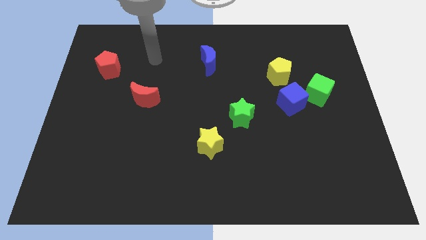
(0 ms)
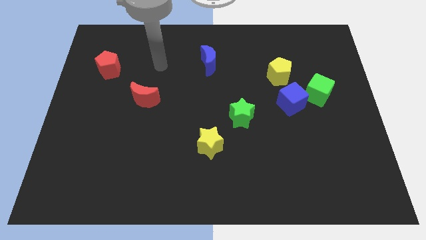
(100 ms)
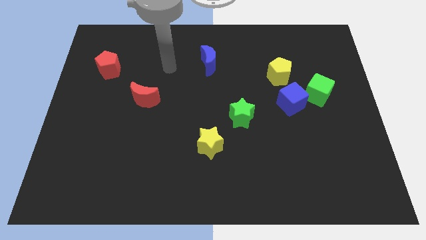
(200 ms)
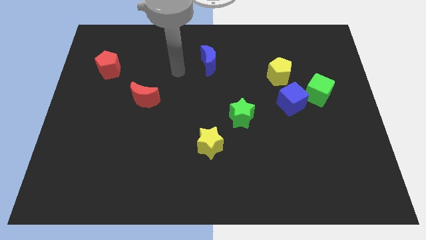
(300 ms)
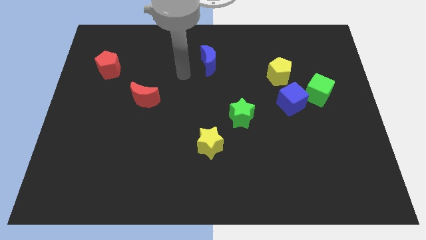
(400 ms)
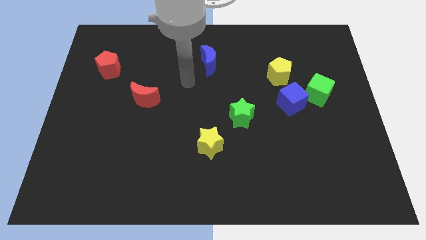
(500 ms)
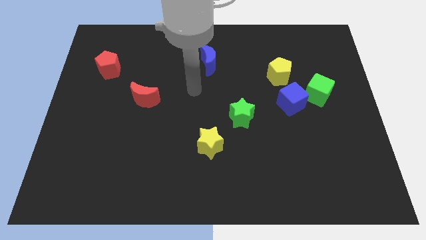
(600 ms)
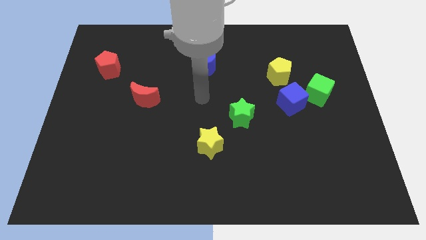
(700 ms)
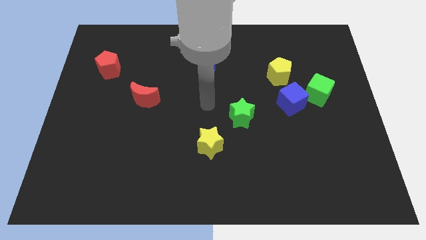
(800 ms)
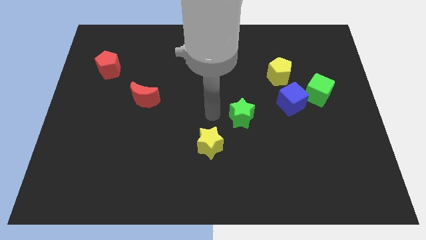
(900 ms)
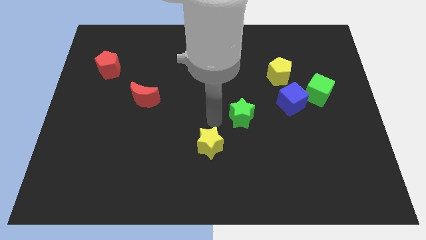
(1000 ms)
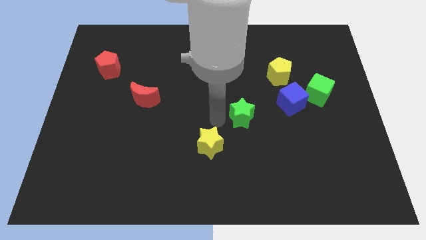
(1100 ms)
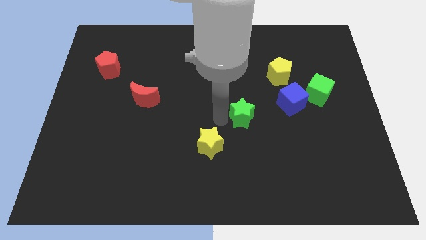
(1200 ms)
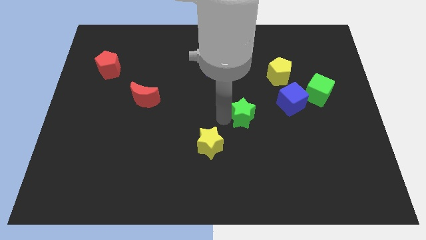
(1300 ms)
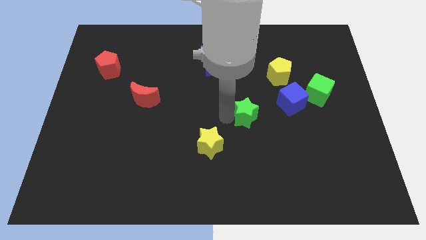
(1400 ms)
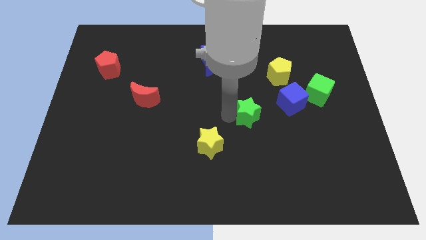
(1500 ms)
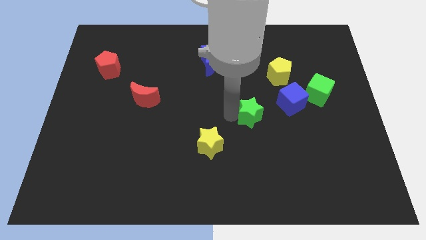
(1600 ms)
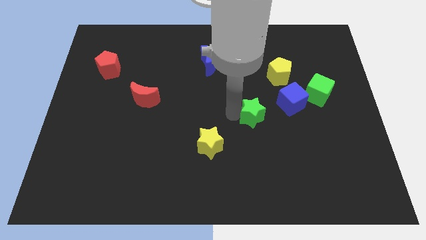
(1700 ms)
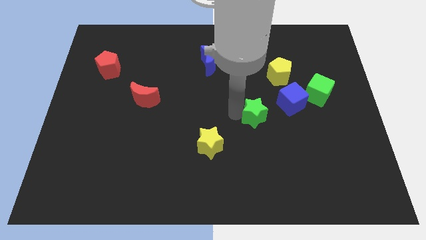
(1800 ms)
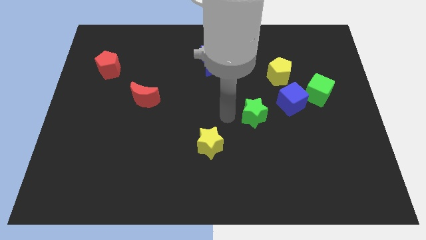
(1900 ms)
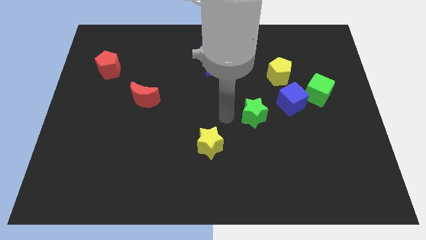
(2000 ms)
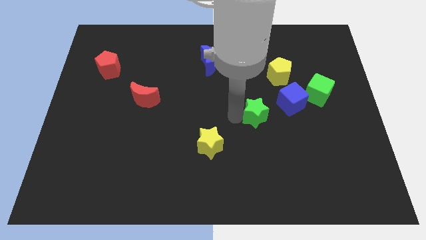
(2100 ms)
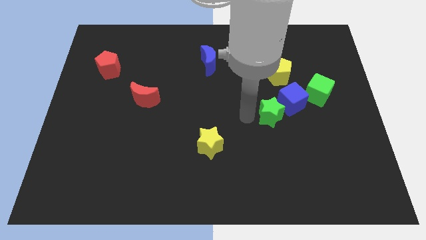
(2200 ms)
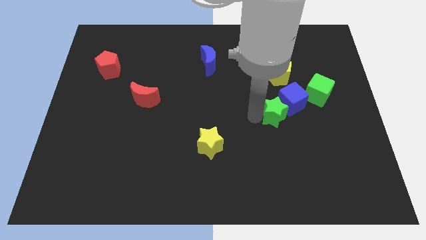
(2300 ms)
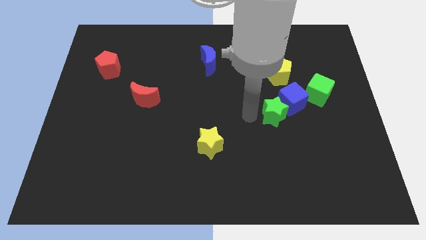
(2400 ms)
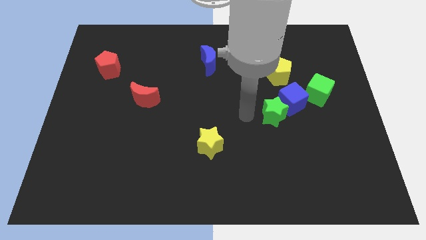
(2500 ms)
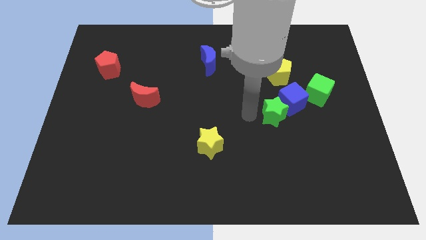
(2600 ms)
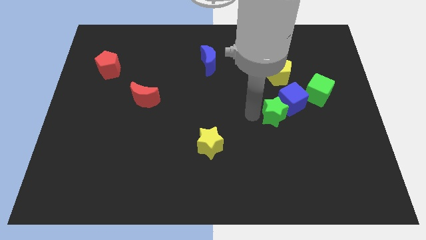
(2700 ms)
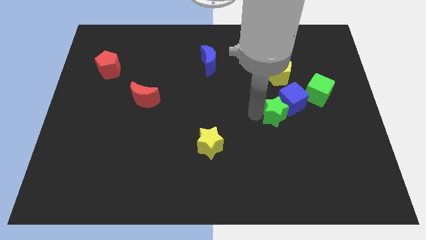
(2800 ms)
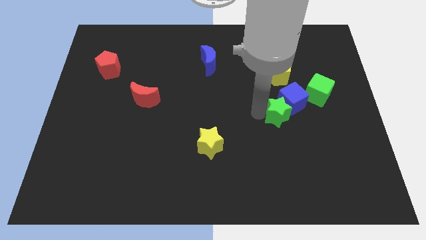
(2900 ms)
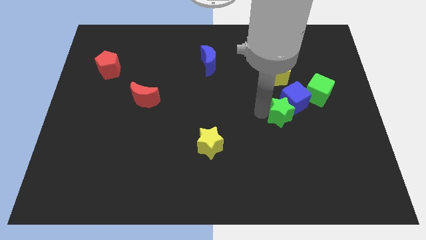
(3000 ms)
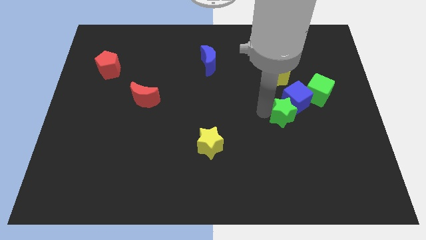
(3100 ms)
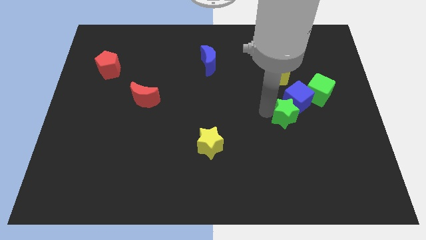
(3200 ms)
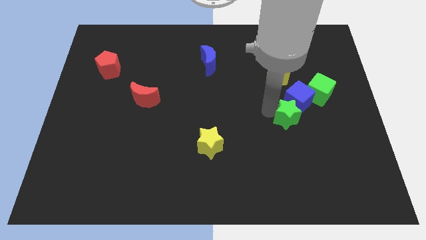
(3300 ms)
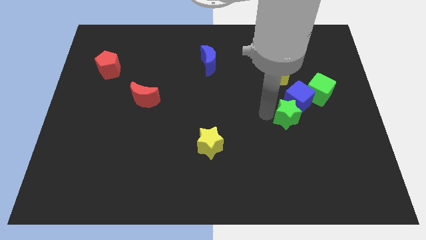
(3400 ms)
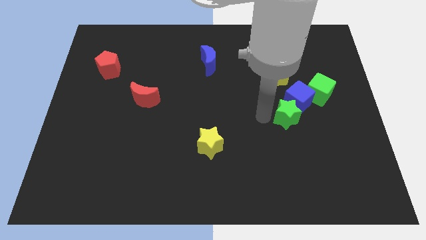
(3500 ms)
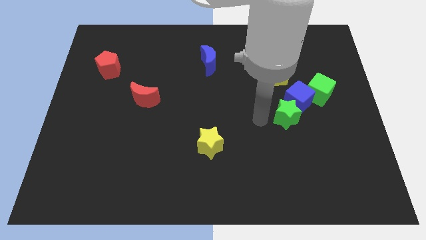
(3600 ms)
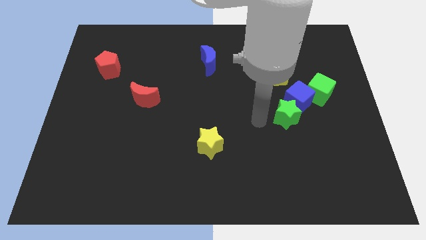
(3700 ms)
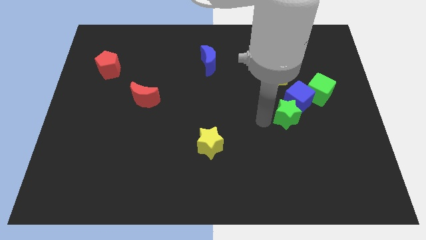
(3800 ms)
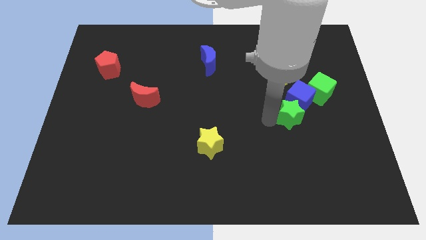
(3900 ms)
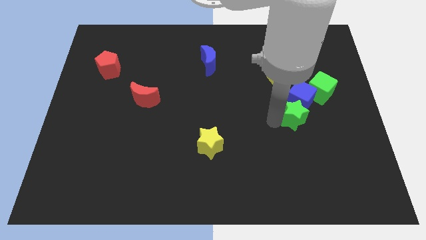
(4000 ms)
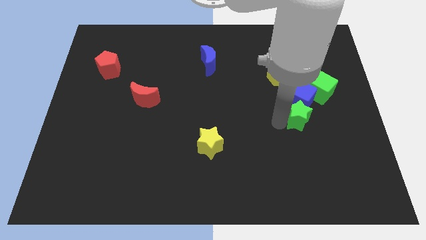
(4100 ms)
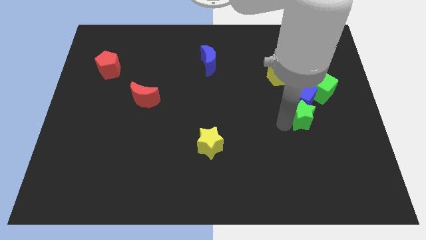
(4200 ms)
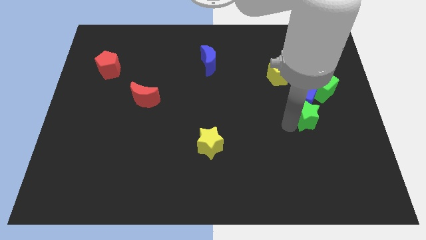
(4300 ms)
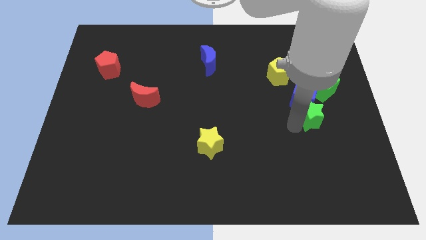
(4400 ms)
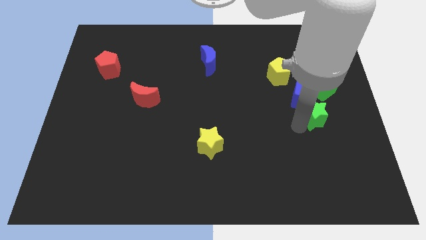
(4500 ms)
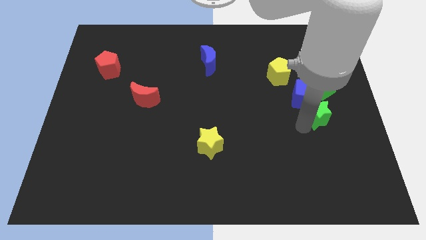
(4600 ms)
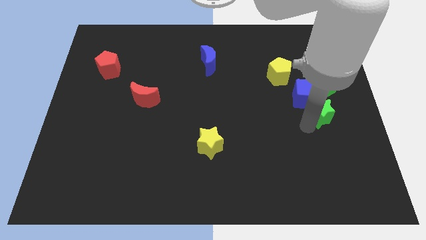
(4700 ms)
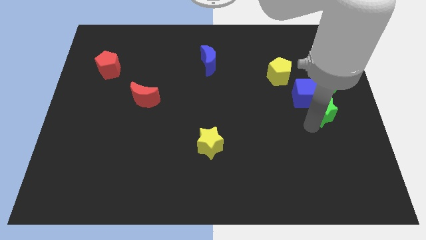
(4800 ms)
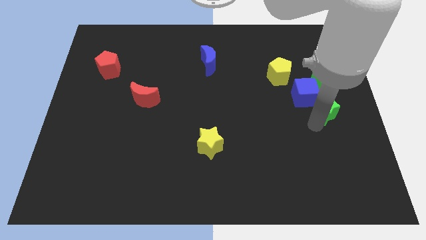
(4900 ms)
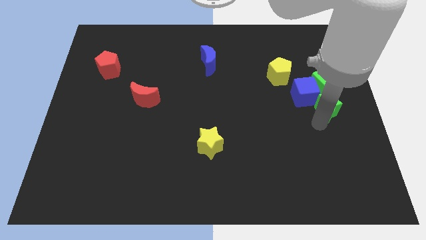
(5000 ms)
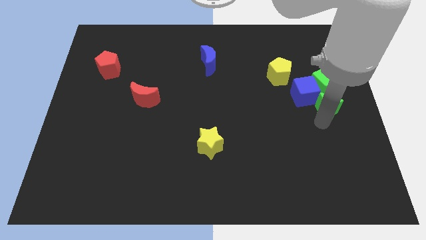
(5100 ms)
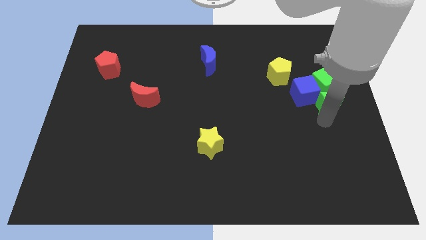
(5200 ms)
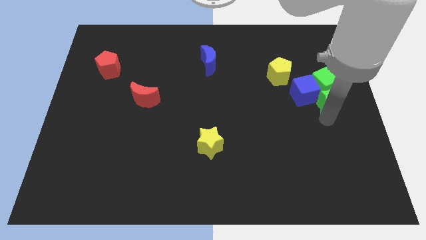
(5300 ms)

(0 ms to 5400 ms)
move the green star next to the green cube

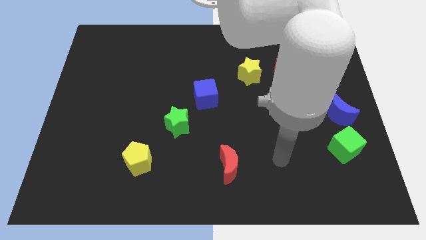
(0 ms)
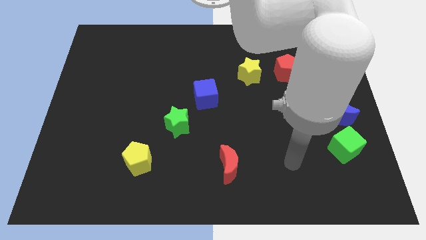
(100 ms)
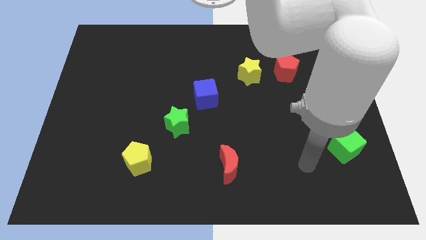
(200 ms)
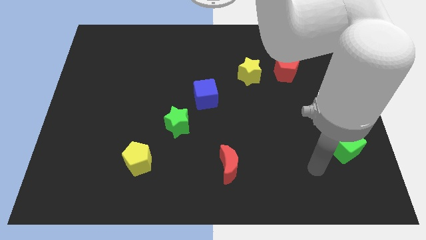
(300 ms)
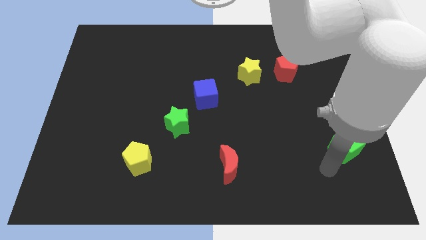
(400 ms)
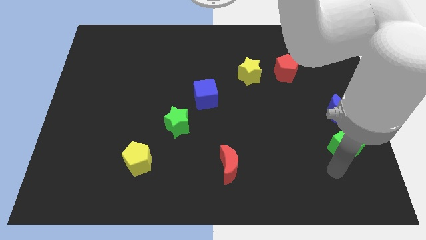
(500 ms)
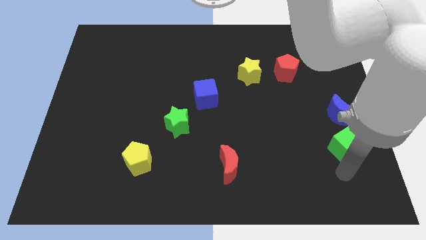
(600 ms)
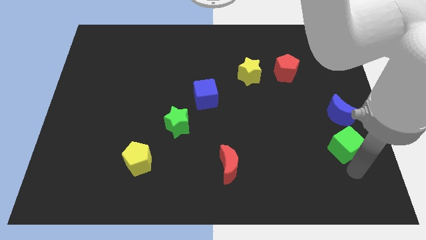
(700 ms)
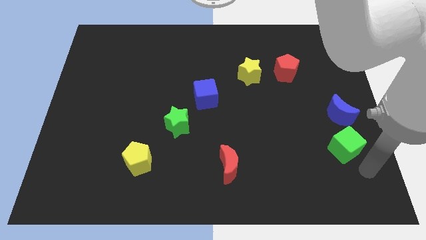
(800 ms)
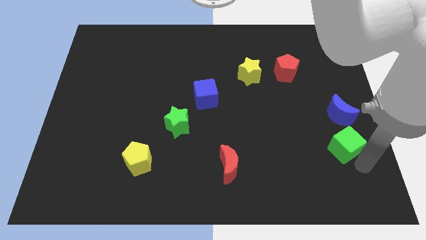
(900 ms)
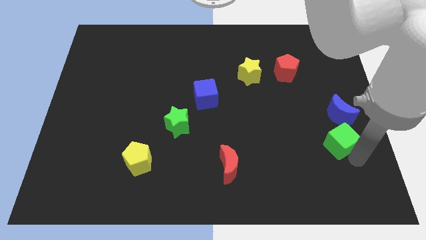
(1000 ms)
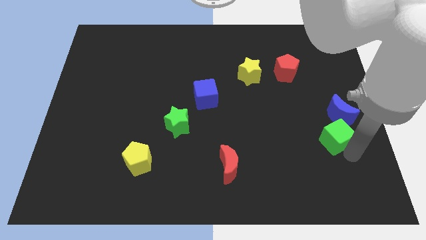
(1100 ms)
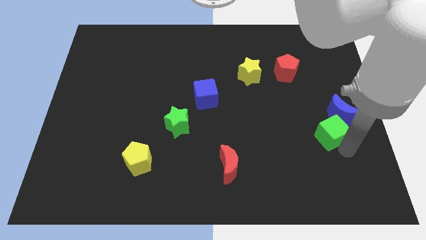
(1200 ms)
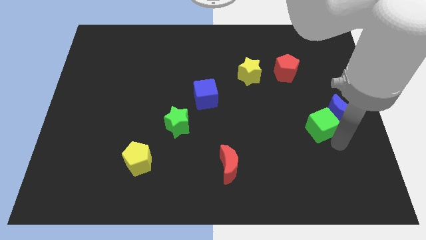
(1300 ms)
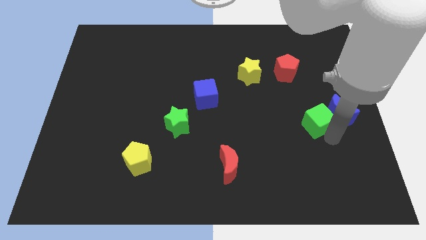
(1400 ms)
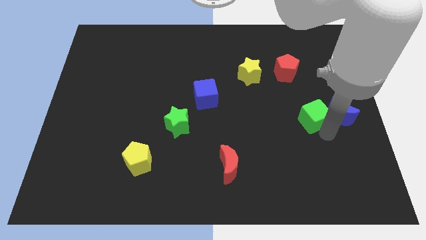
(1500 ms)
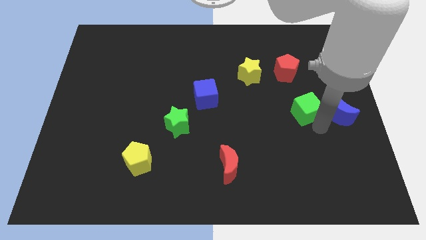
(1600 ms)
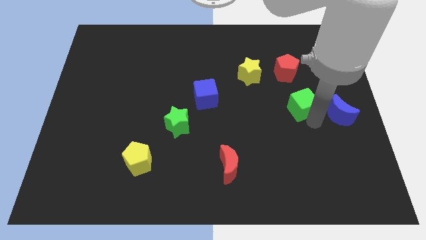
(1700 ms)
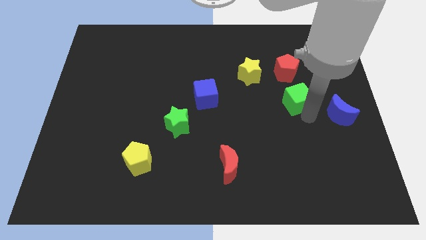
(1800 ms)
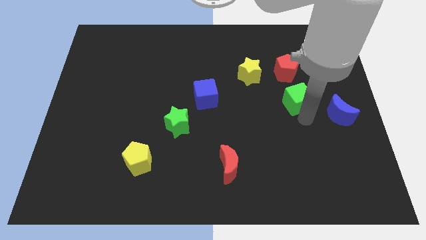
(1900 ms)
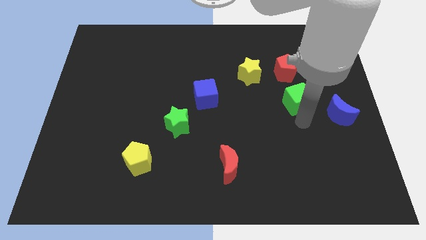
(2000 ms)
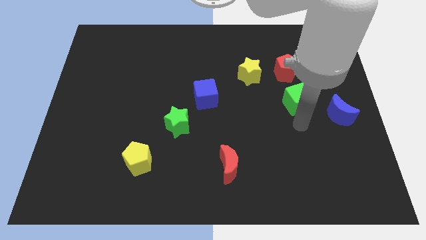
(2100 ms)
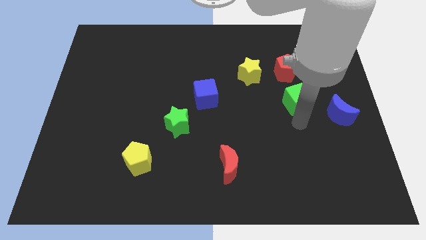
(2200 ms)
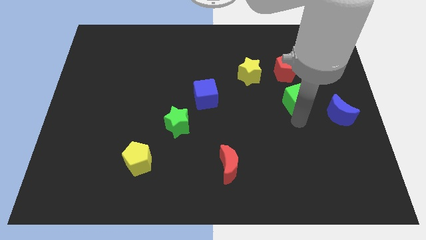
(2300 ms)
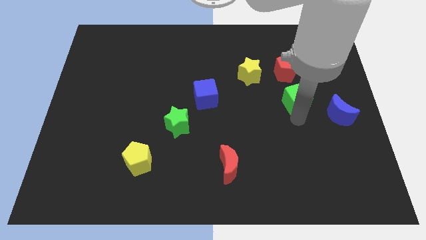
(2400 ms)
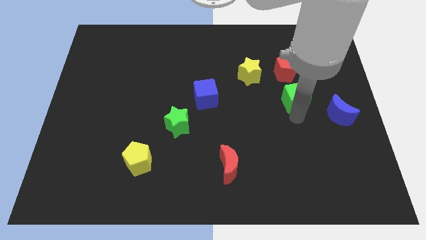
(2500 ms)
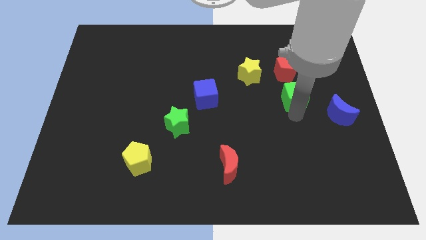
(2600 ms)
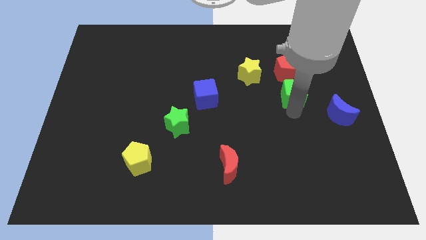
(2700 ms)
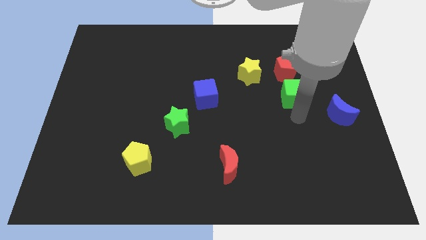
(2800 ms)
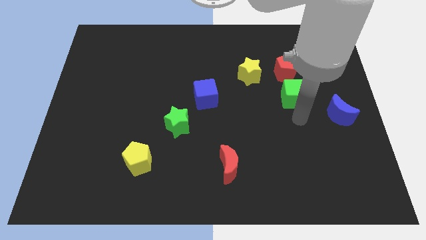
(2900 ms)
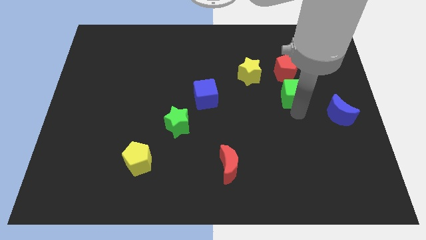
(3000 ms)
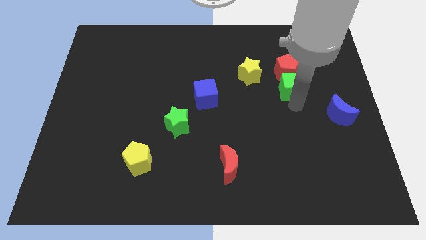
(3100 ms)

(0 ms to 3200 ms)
push the green cube to the red pentagon
